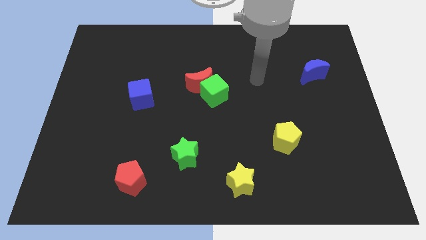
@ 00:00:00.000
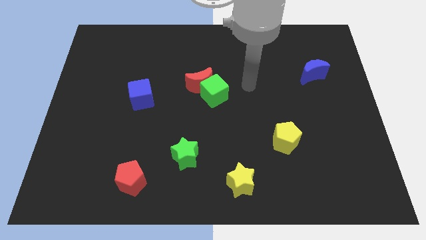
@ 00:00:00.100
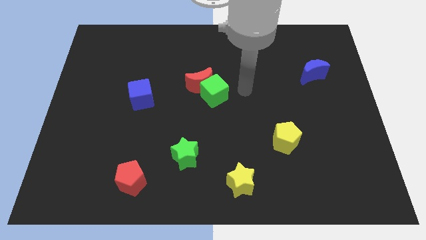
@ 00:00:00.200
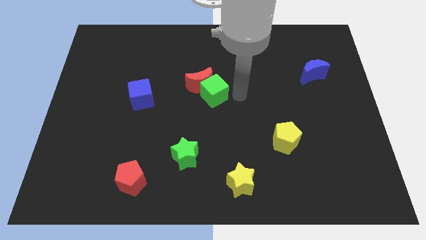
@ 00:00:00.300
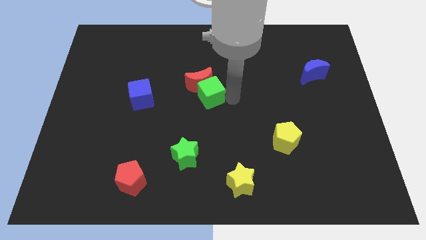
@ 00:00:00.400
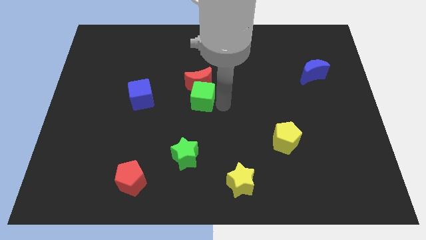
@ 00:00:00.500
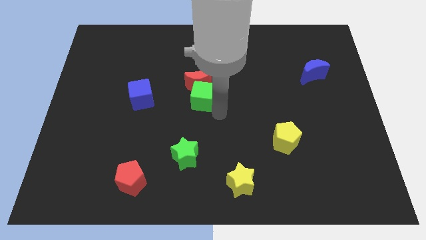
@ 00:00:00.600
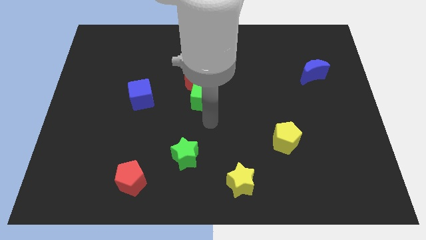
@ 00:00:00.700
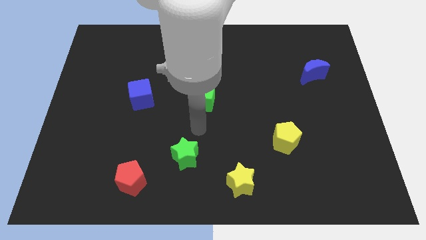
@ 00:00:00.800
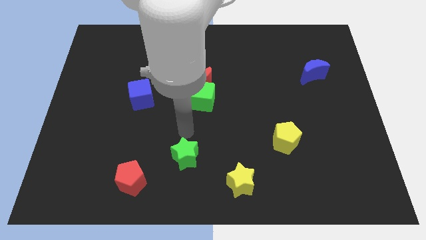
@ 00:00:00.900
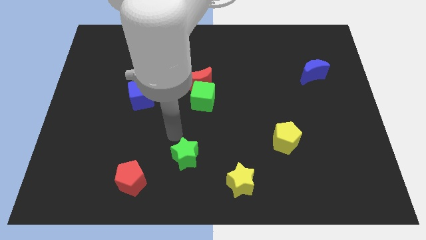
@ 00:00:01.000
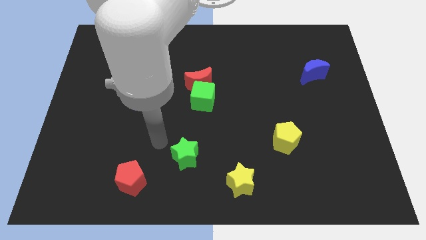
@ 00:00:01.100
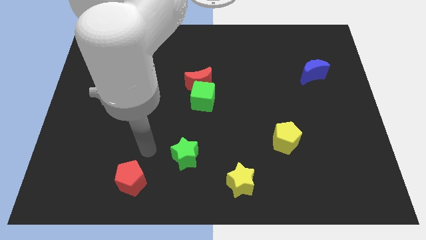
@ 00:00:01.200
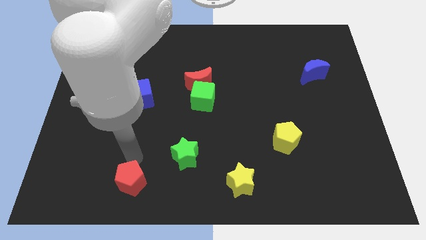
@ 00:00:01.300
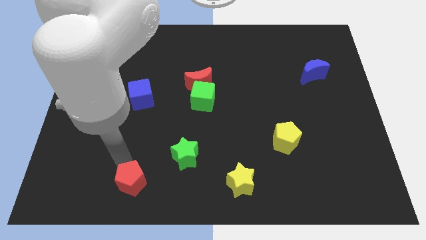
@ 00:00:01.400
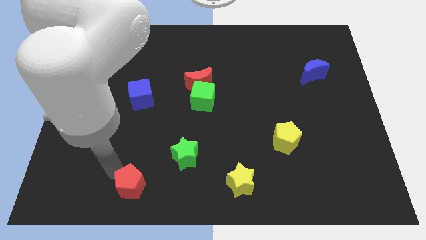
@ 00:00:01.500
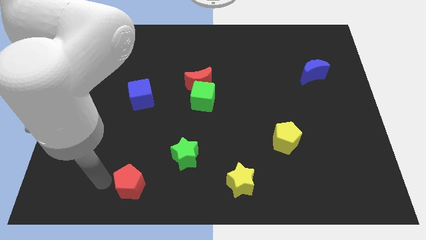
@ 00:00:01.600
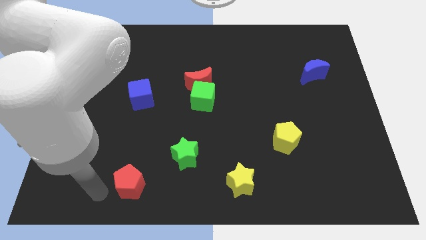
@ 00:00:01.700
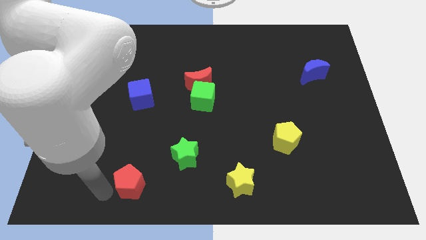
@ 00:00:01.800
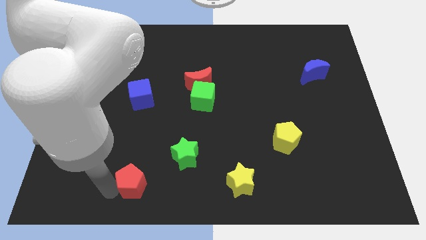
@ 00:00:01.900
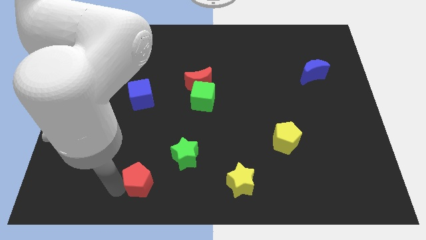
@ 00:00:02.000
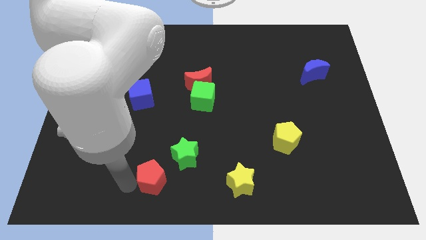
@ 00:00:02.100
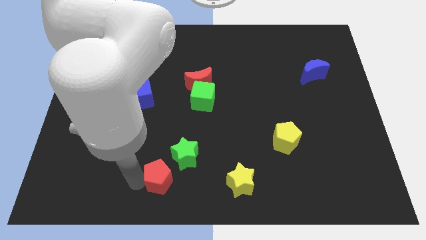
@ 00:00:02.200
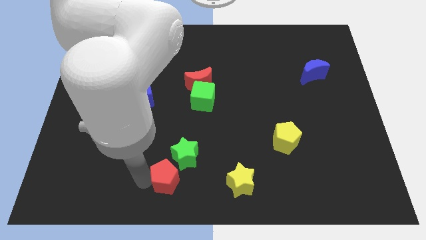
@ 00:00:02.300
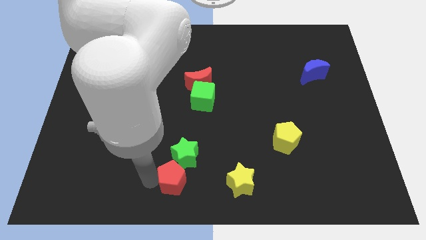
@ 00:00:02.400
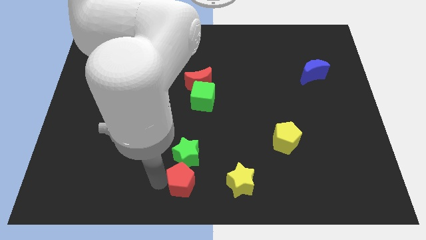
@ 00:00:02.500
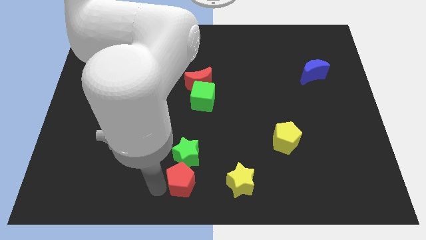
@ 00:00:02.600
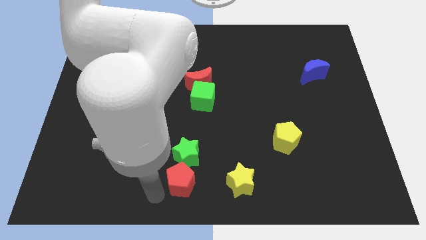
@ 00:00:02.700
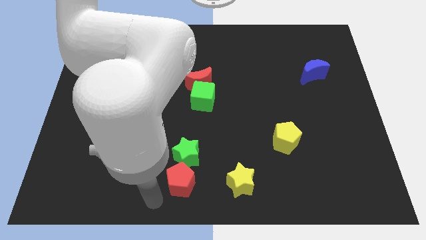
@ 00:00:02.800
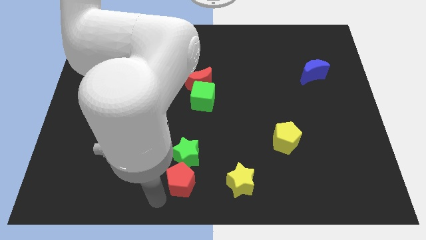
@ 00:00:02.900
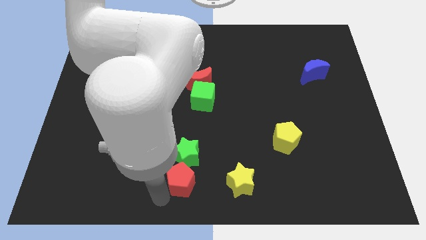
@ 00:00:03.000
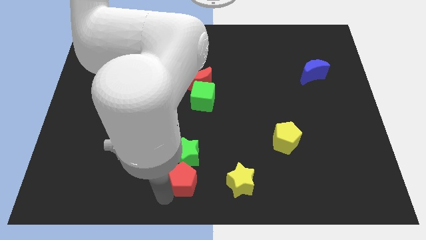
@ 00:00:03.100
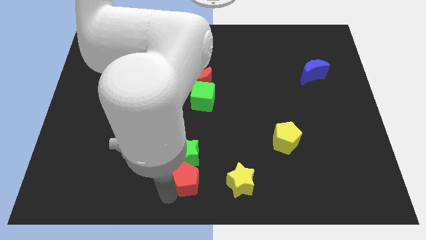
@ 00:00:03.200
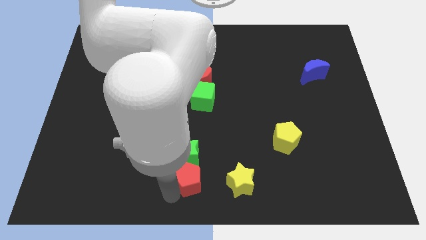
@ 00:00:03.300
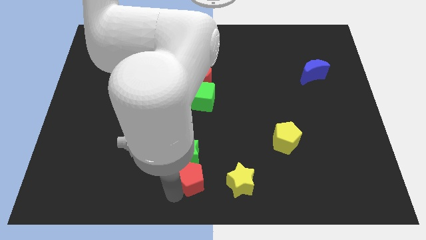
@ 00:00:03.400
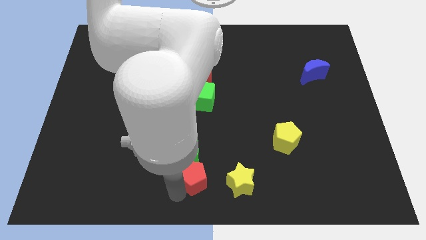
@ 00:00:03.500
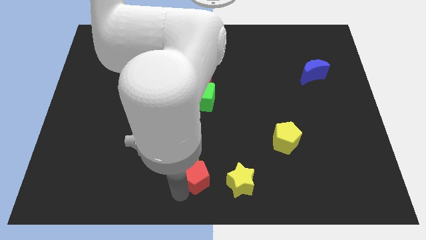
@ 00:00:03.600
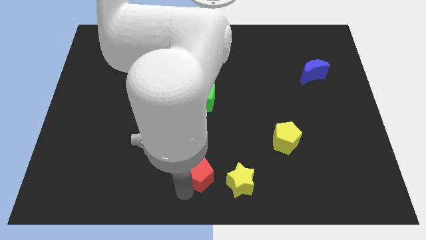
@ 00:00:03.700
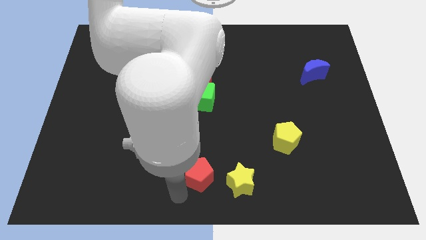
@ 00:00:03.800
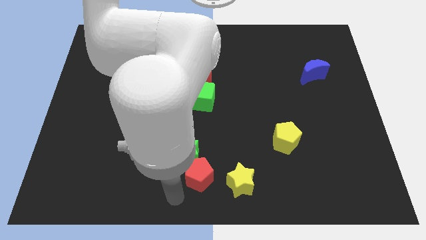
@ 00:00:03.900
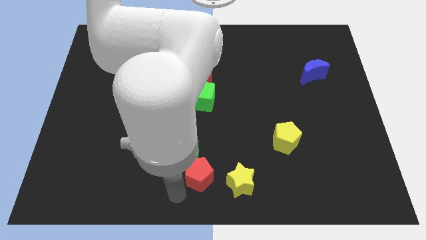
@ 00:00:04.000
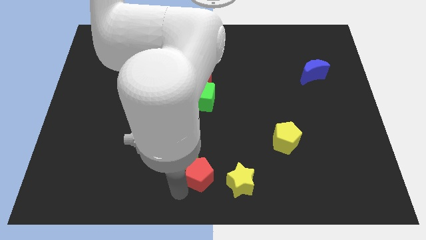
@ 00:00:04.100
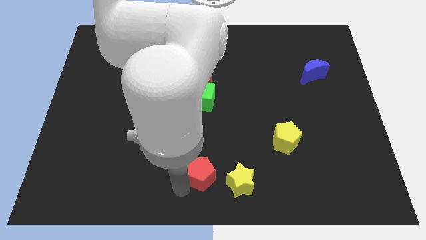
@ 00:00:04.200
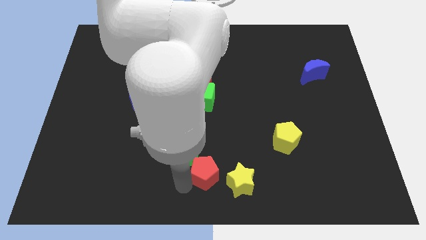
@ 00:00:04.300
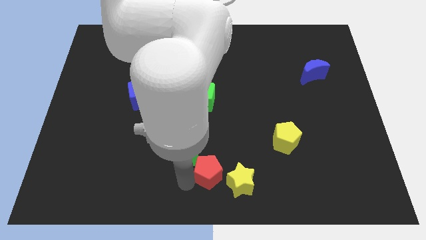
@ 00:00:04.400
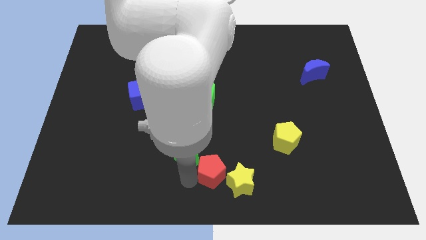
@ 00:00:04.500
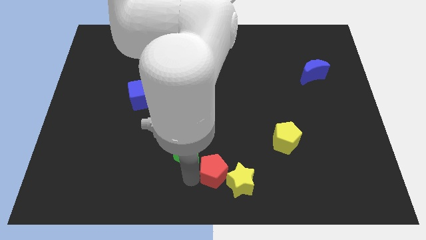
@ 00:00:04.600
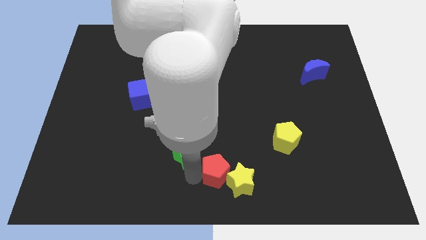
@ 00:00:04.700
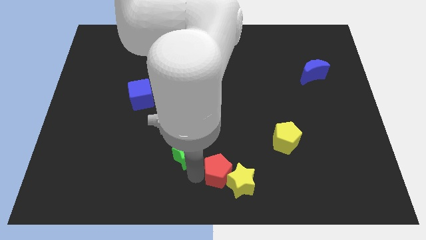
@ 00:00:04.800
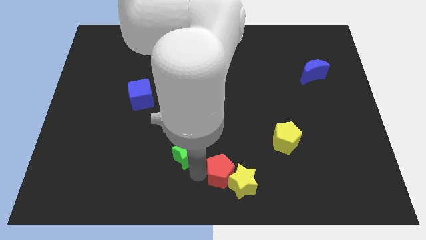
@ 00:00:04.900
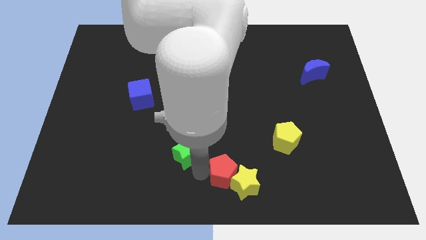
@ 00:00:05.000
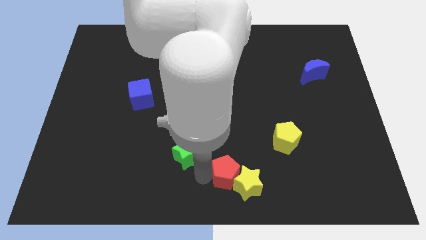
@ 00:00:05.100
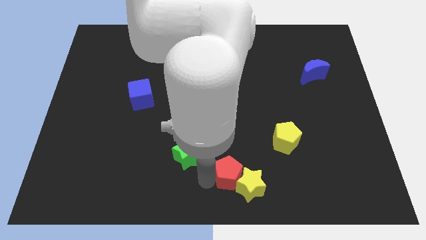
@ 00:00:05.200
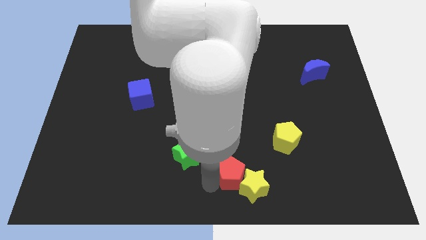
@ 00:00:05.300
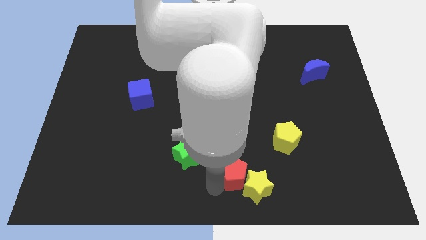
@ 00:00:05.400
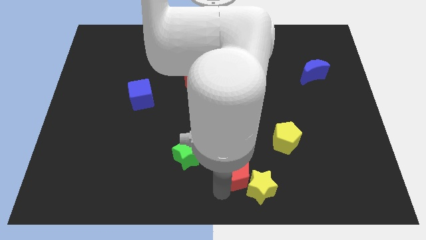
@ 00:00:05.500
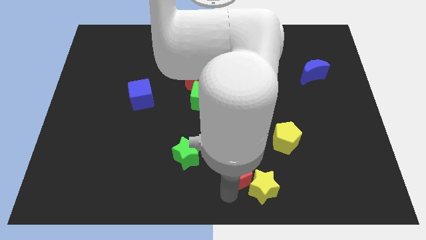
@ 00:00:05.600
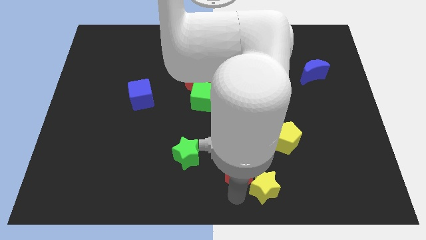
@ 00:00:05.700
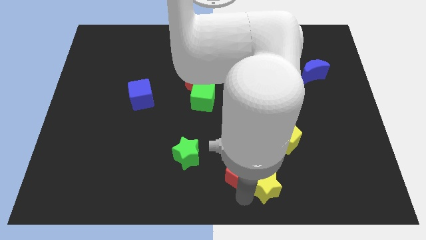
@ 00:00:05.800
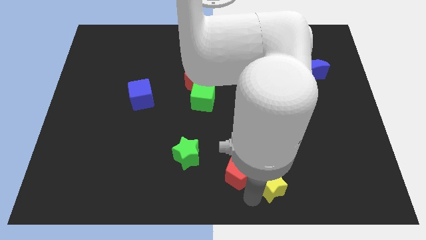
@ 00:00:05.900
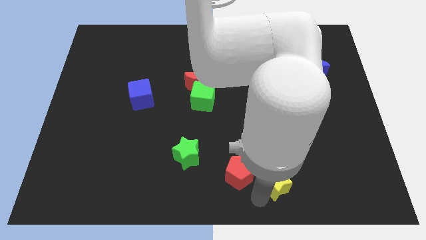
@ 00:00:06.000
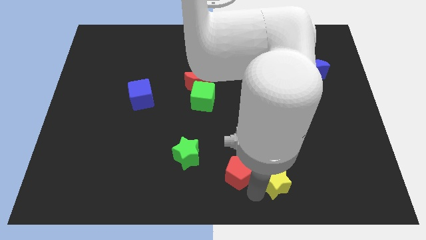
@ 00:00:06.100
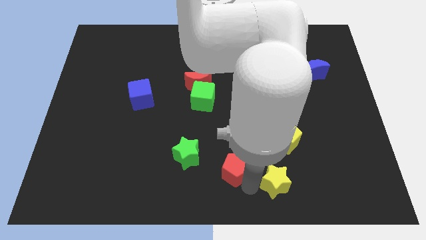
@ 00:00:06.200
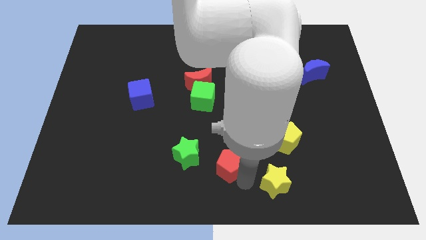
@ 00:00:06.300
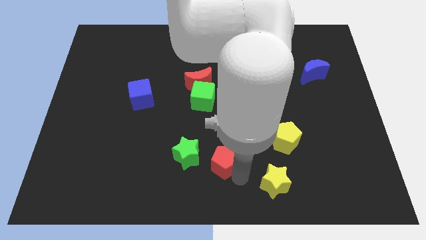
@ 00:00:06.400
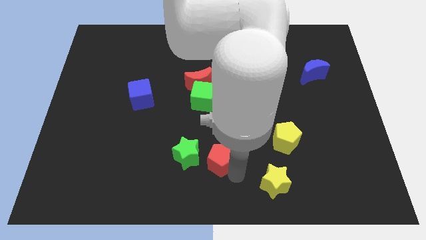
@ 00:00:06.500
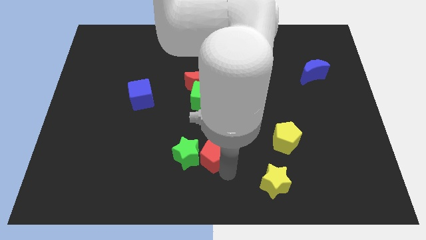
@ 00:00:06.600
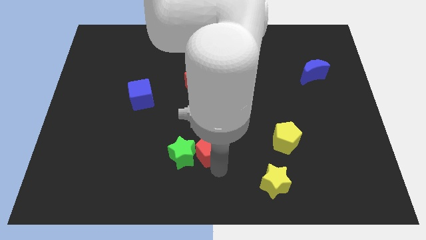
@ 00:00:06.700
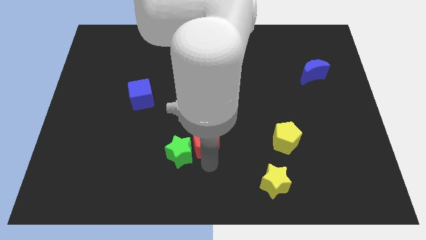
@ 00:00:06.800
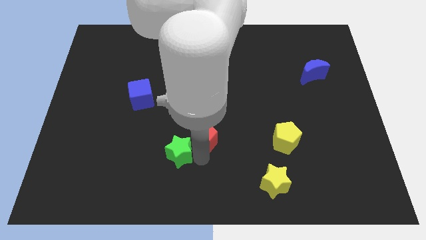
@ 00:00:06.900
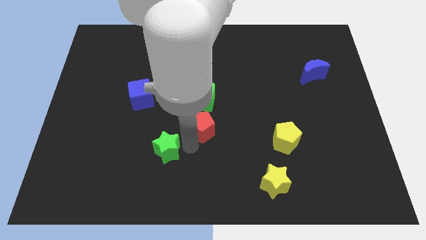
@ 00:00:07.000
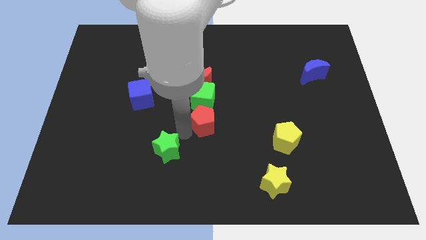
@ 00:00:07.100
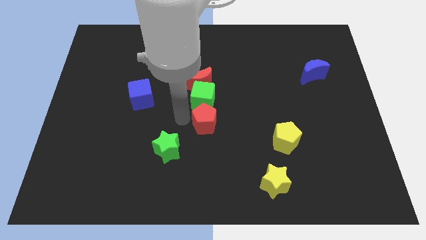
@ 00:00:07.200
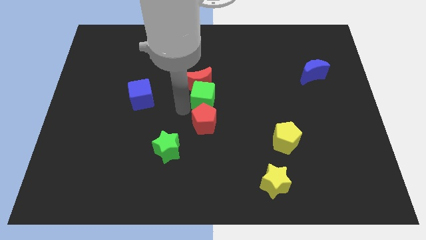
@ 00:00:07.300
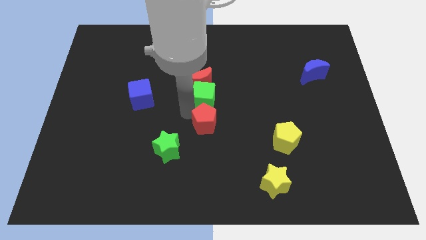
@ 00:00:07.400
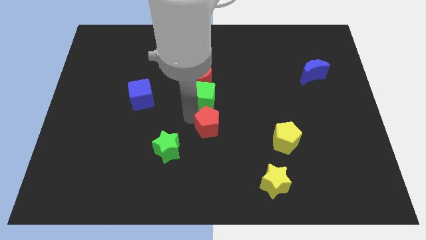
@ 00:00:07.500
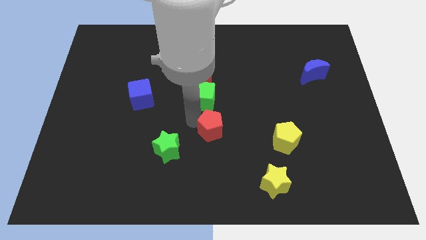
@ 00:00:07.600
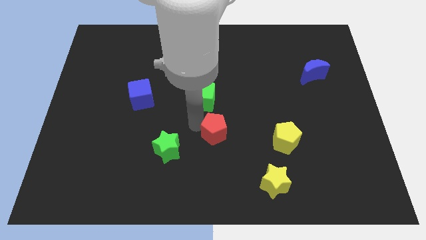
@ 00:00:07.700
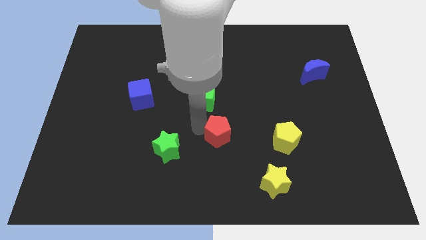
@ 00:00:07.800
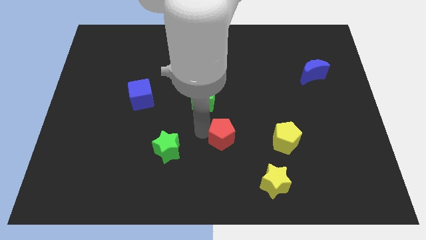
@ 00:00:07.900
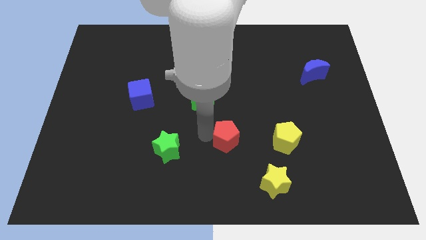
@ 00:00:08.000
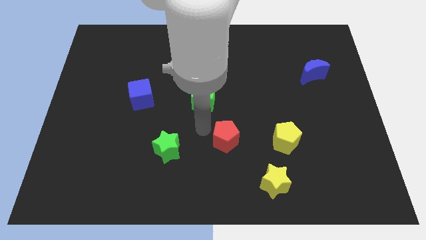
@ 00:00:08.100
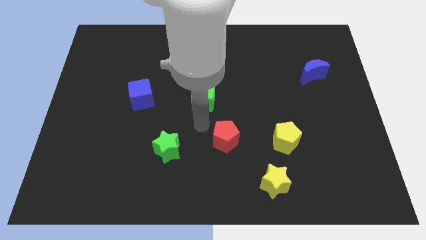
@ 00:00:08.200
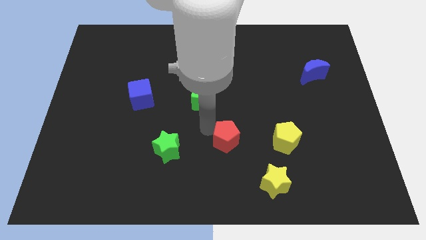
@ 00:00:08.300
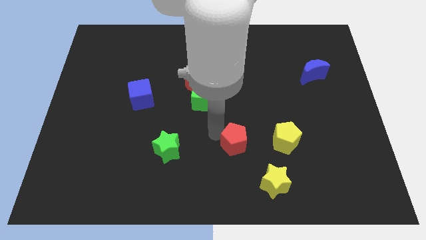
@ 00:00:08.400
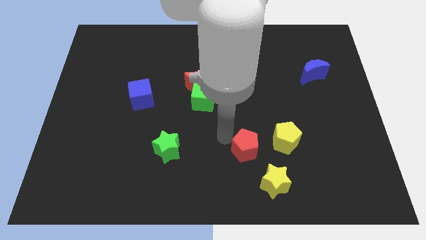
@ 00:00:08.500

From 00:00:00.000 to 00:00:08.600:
move the red pentagon diagonally down and to the left of the yellow pentagon
